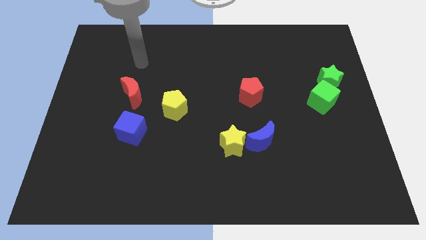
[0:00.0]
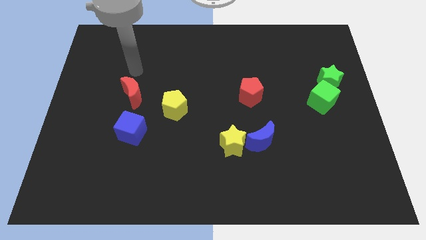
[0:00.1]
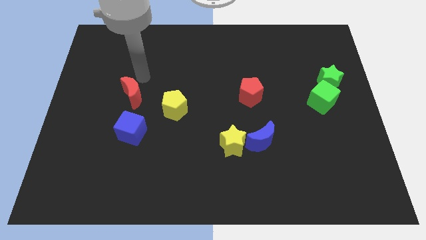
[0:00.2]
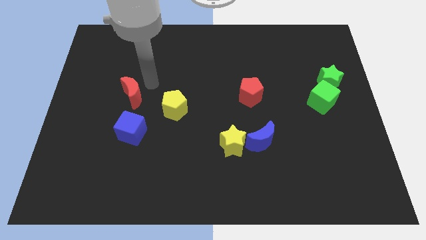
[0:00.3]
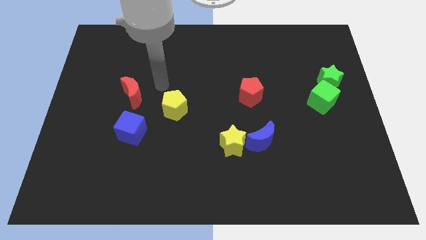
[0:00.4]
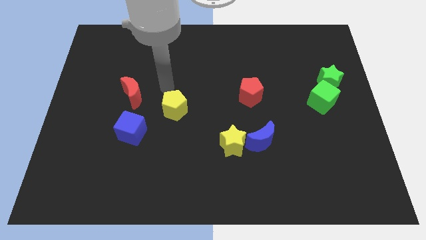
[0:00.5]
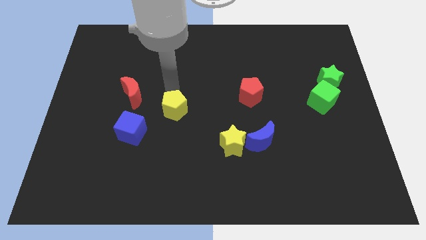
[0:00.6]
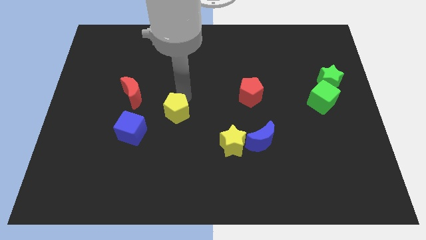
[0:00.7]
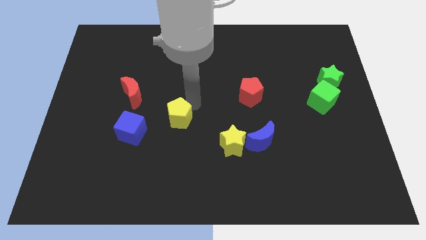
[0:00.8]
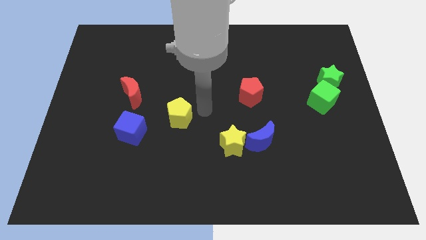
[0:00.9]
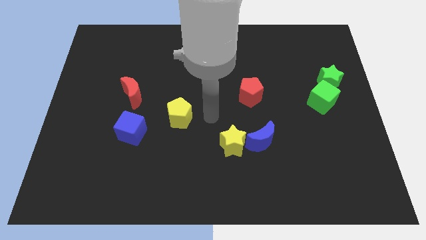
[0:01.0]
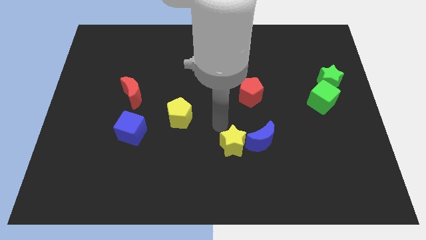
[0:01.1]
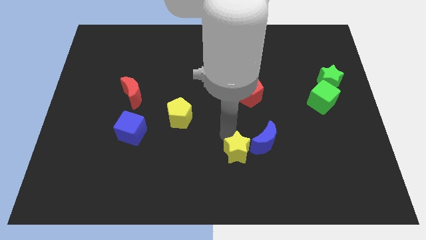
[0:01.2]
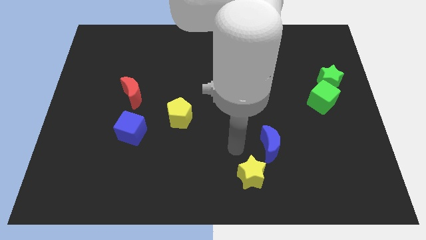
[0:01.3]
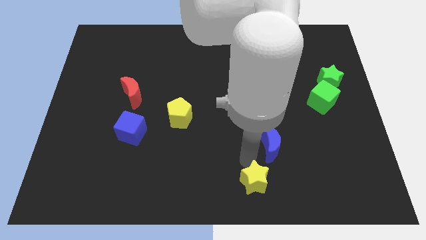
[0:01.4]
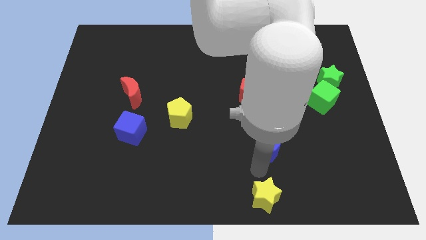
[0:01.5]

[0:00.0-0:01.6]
move the blue moon away from the yellow star

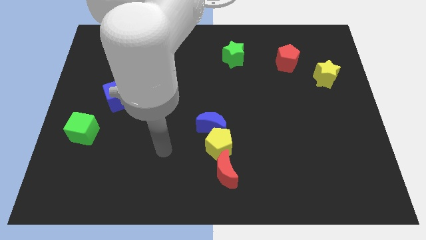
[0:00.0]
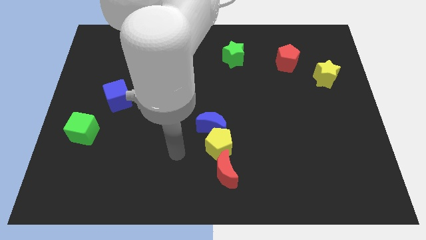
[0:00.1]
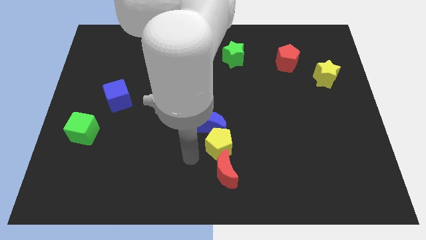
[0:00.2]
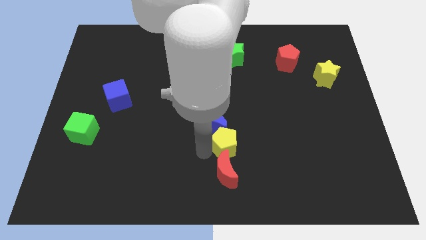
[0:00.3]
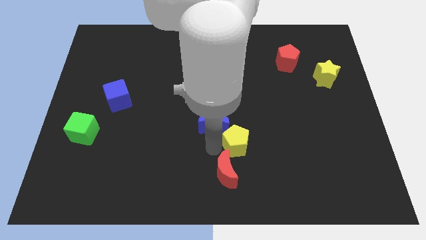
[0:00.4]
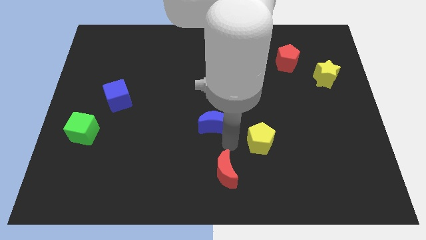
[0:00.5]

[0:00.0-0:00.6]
move the blue moon away from the yellow pentagon

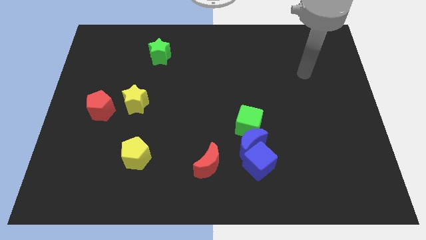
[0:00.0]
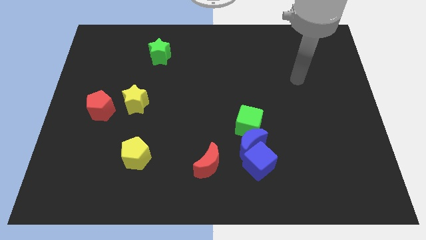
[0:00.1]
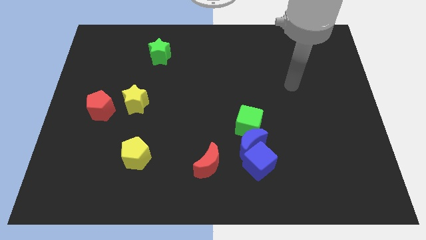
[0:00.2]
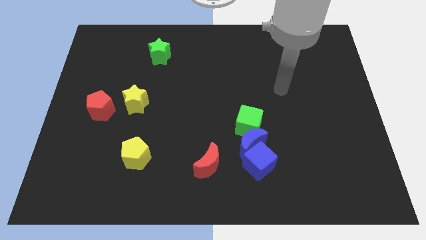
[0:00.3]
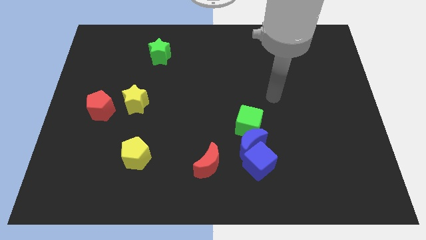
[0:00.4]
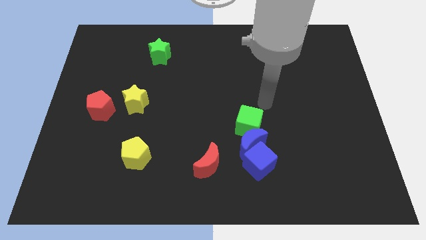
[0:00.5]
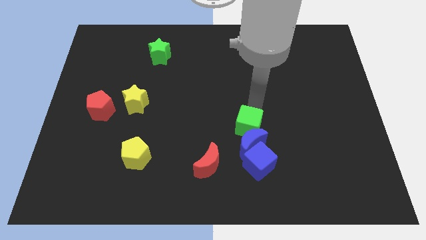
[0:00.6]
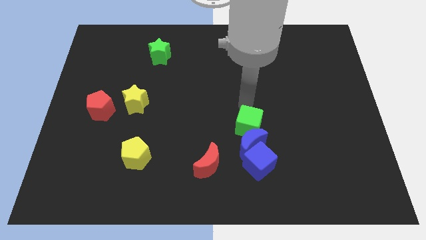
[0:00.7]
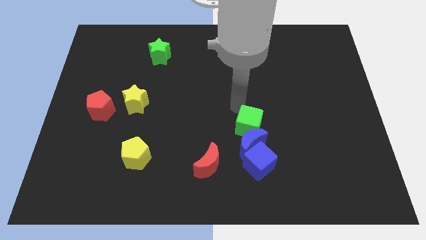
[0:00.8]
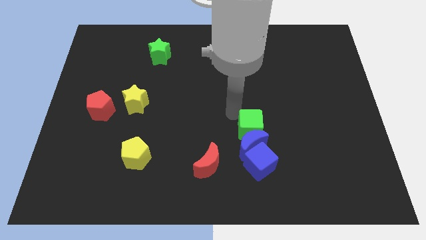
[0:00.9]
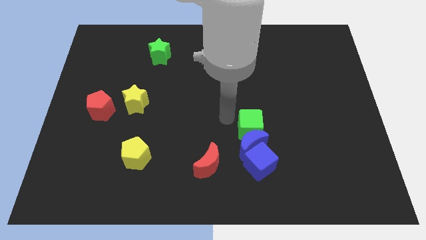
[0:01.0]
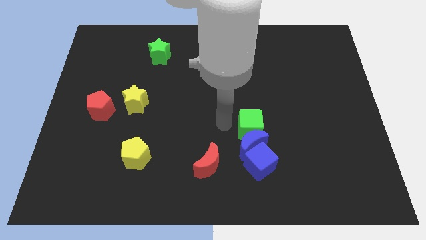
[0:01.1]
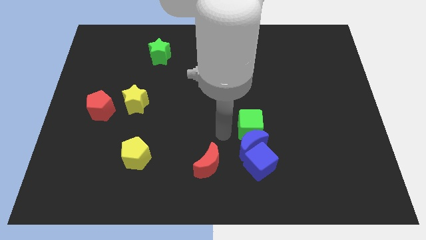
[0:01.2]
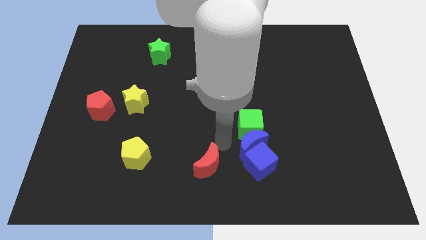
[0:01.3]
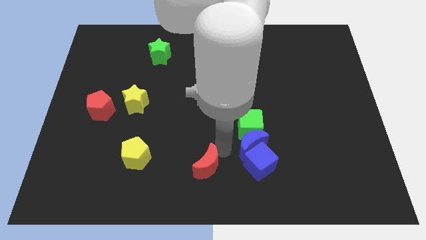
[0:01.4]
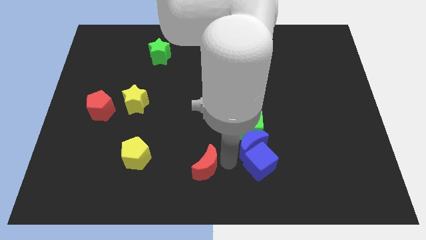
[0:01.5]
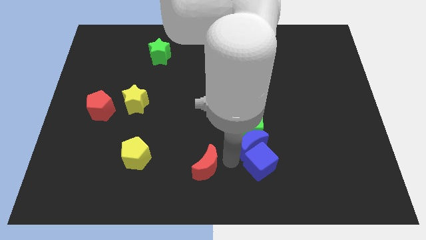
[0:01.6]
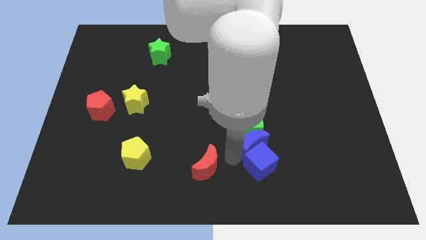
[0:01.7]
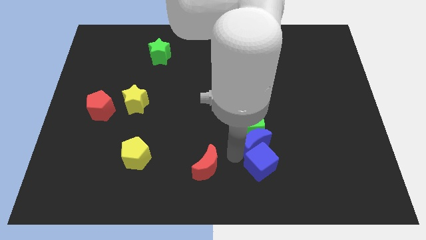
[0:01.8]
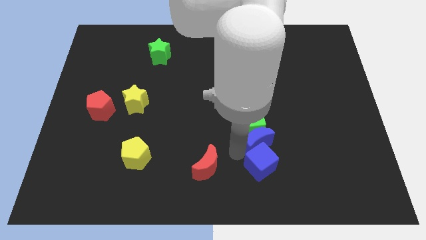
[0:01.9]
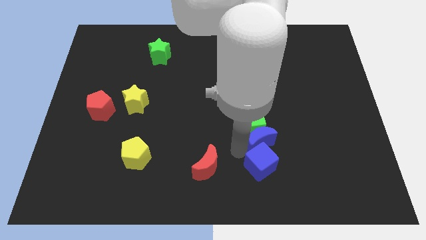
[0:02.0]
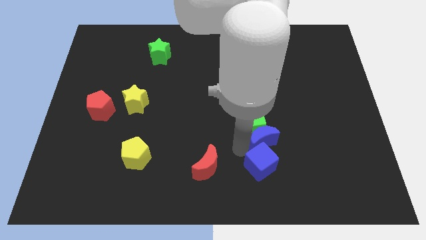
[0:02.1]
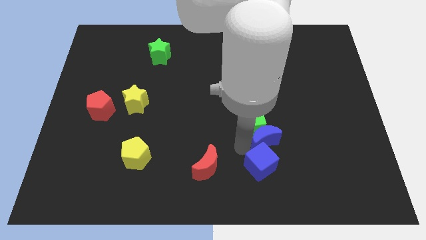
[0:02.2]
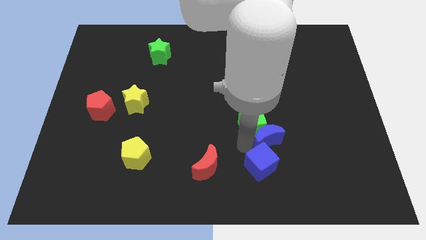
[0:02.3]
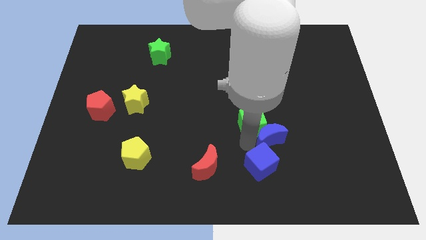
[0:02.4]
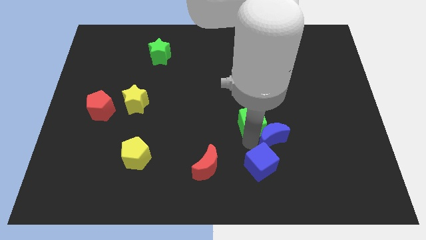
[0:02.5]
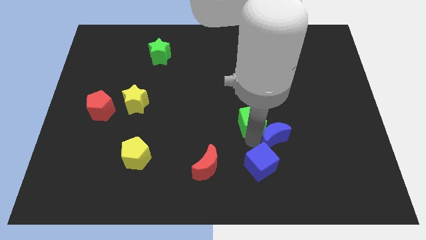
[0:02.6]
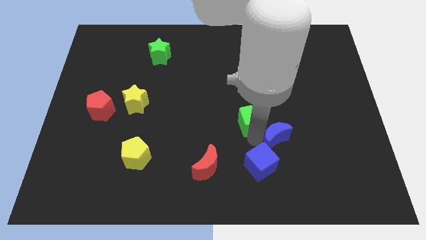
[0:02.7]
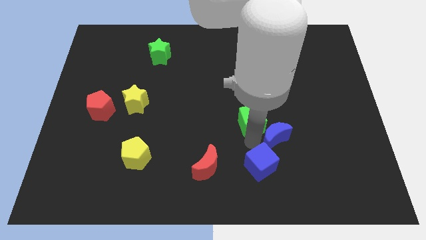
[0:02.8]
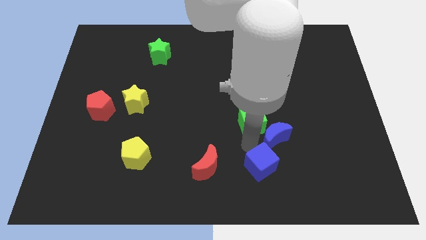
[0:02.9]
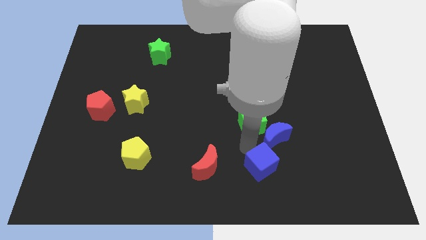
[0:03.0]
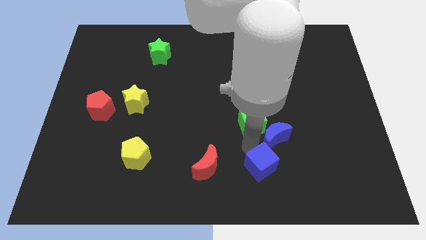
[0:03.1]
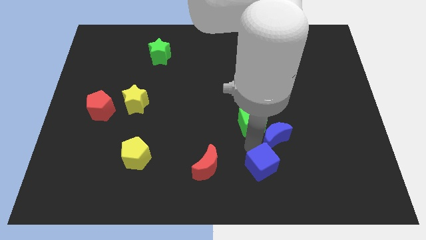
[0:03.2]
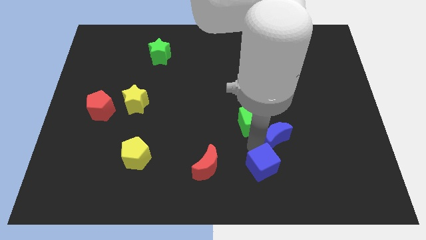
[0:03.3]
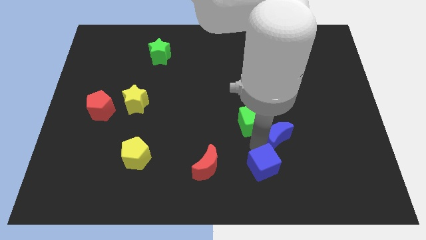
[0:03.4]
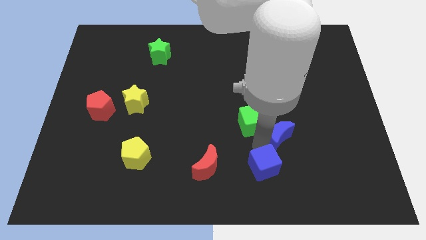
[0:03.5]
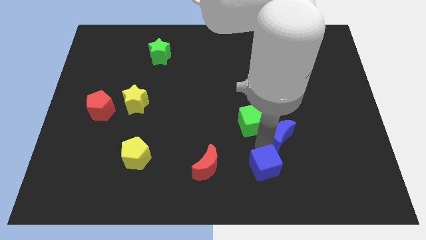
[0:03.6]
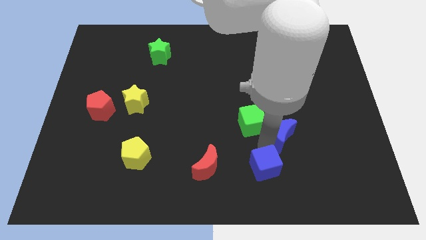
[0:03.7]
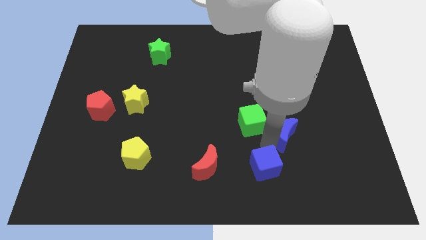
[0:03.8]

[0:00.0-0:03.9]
pull the blue moon apart from the clump

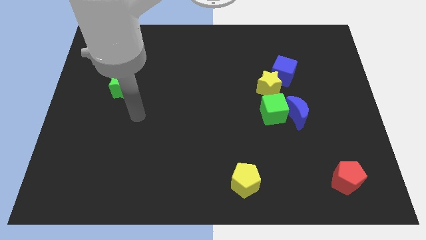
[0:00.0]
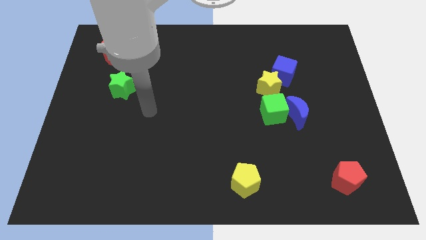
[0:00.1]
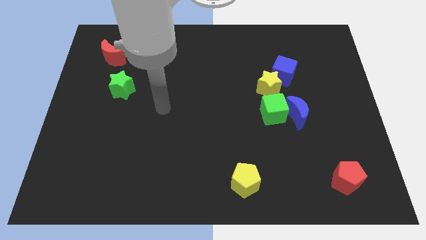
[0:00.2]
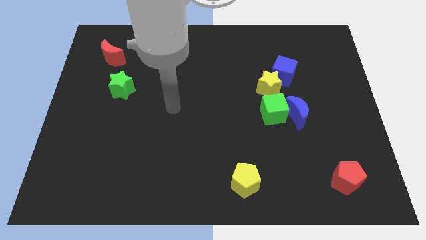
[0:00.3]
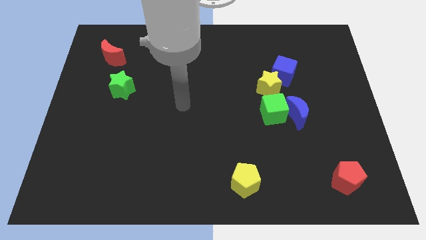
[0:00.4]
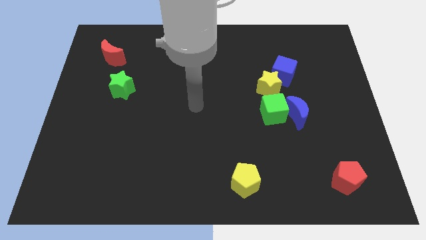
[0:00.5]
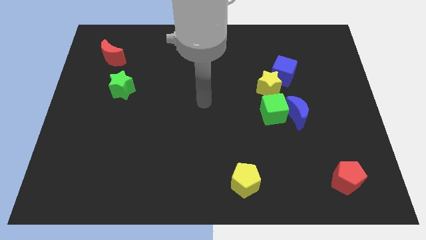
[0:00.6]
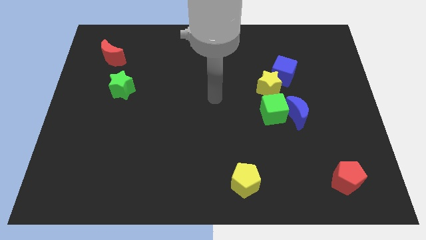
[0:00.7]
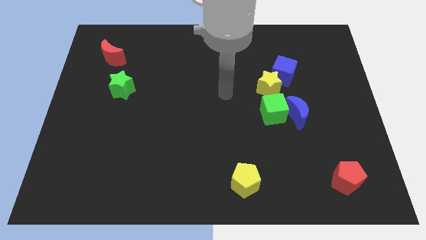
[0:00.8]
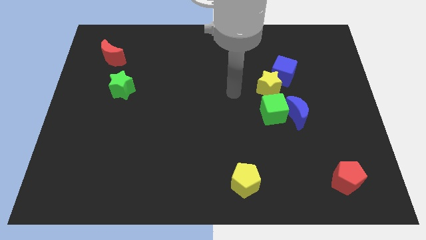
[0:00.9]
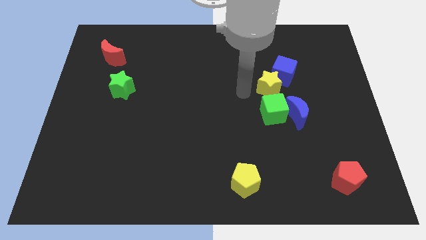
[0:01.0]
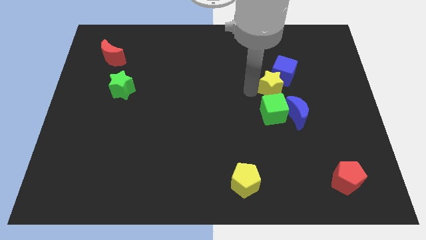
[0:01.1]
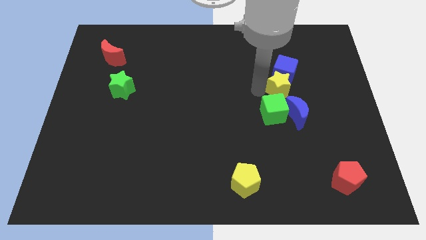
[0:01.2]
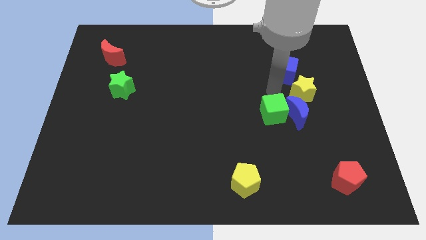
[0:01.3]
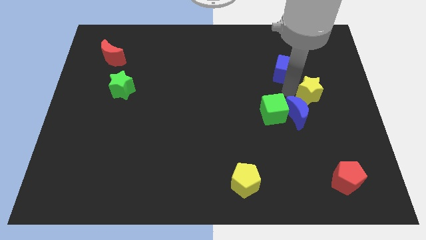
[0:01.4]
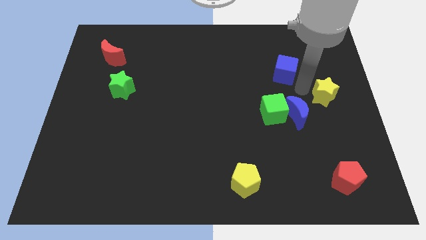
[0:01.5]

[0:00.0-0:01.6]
move the blue cube away from the yellow star

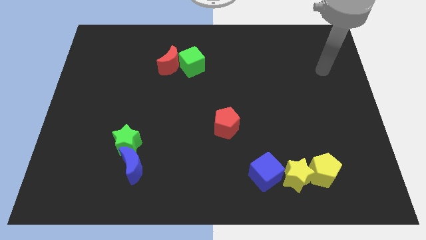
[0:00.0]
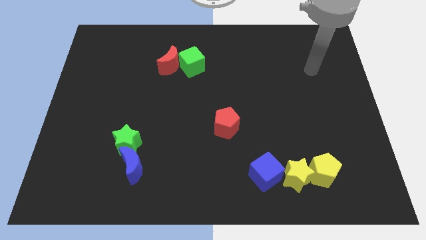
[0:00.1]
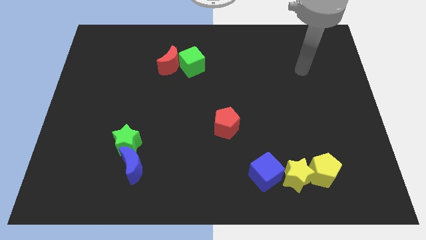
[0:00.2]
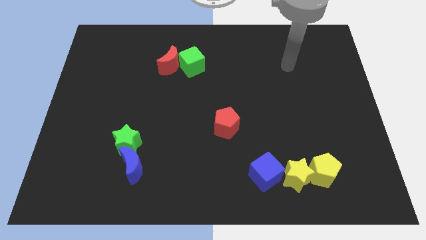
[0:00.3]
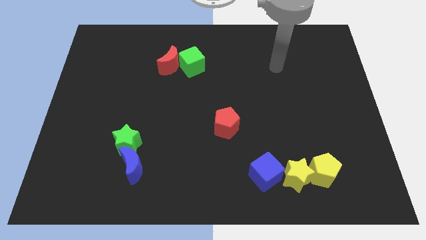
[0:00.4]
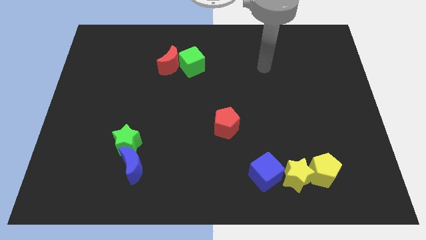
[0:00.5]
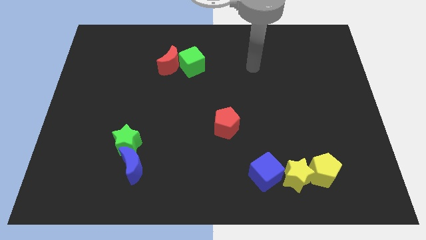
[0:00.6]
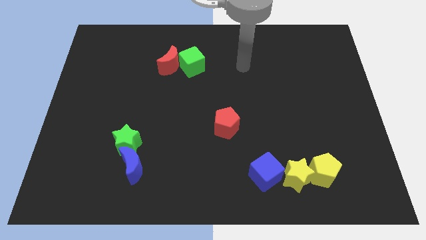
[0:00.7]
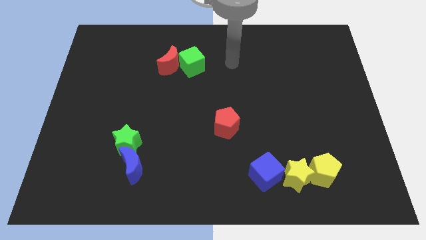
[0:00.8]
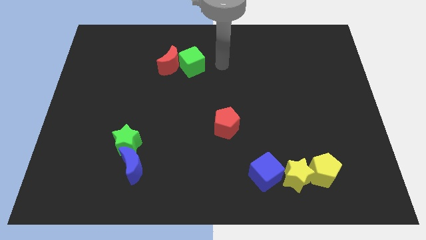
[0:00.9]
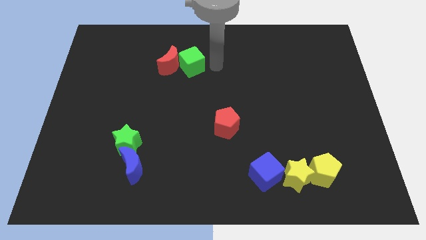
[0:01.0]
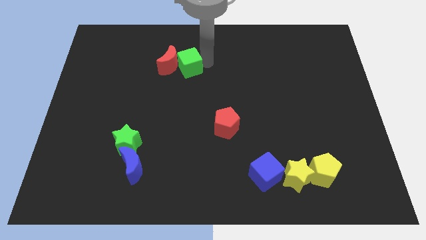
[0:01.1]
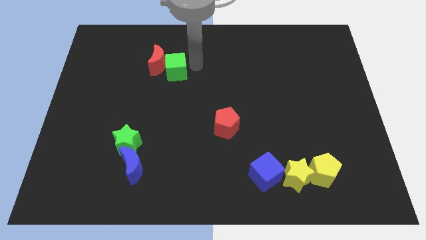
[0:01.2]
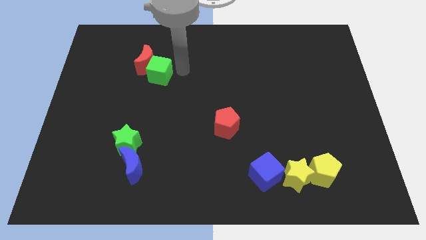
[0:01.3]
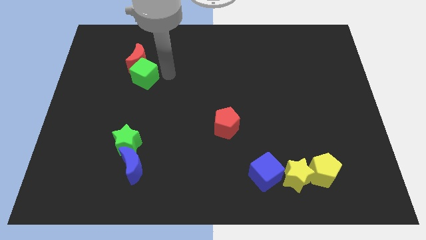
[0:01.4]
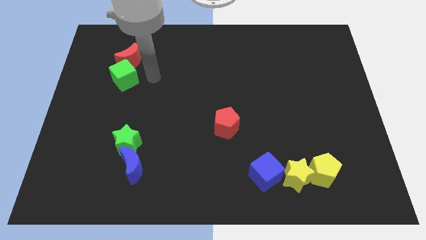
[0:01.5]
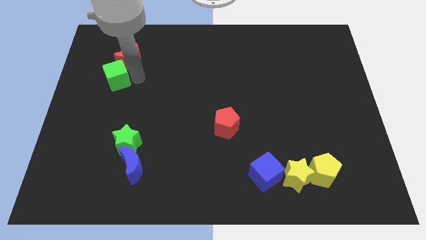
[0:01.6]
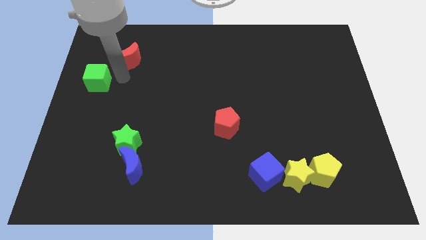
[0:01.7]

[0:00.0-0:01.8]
pull the red moon apart from the green cube

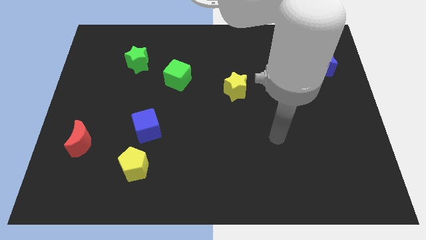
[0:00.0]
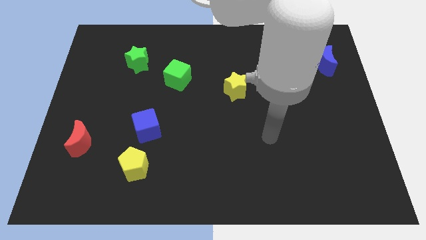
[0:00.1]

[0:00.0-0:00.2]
separate the blue cube from the yellow pentagon
